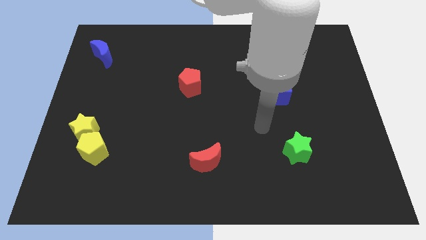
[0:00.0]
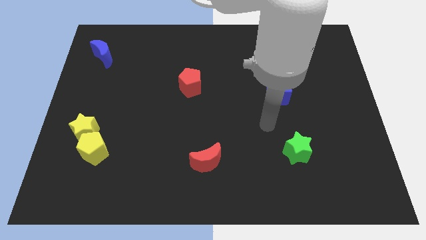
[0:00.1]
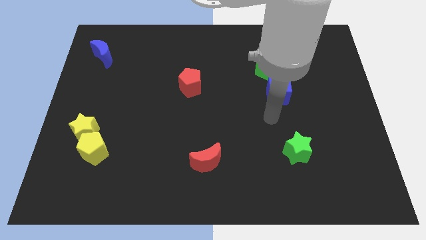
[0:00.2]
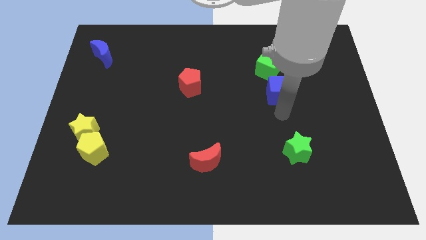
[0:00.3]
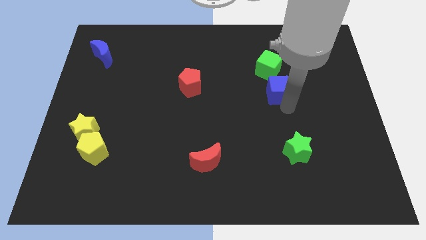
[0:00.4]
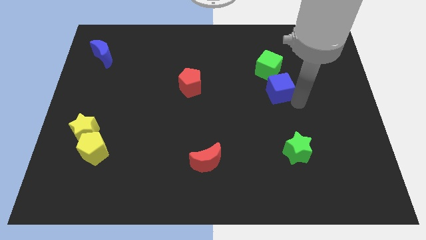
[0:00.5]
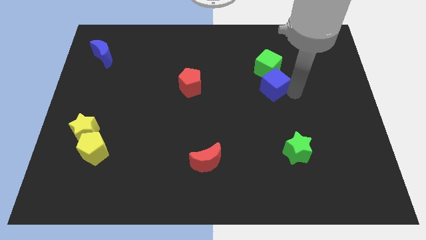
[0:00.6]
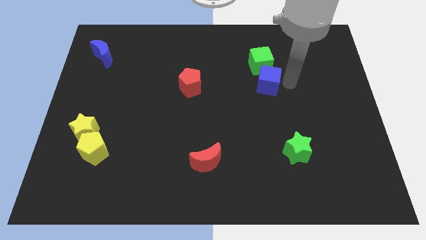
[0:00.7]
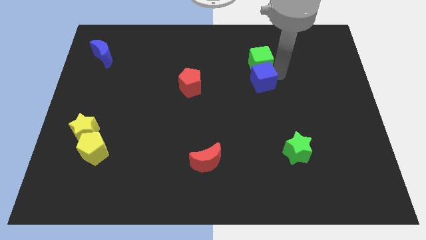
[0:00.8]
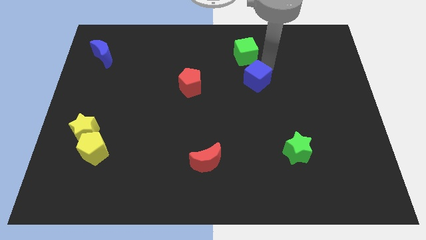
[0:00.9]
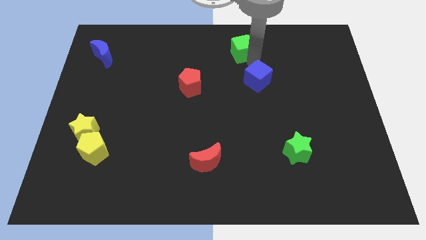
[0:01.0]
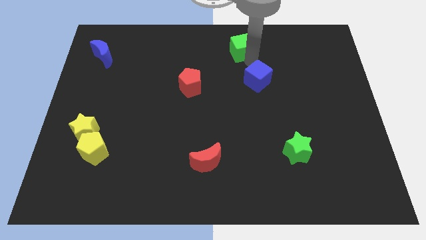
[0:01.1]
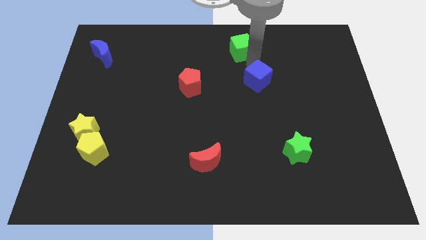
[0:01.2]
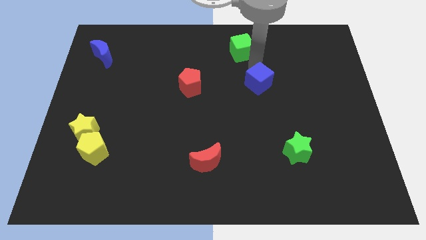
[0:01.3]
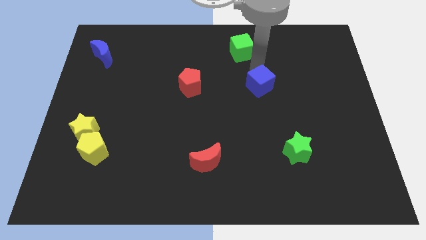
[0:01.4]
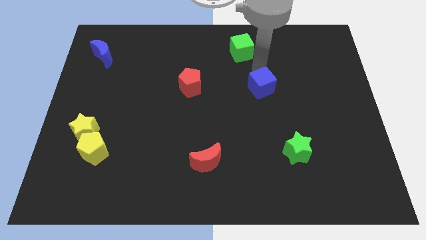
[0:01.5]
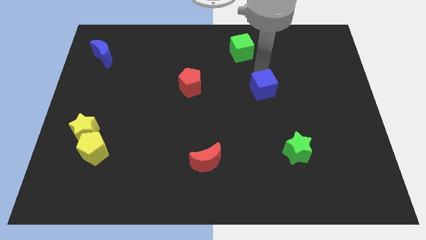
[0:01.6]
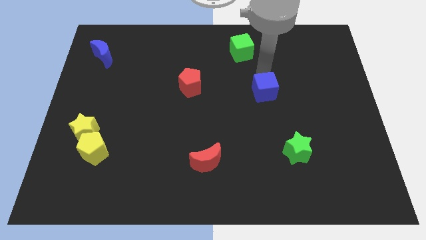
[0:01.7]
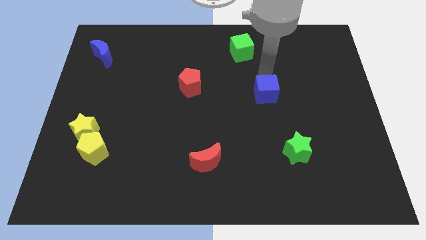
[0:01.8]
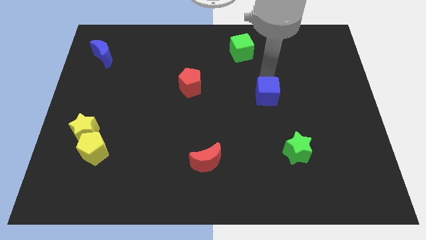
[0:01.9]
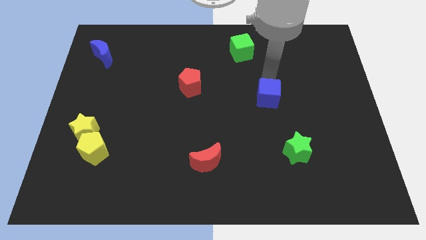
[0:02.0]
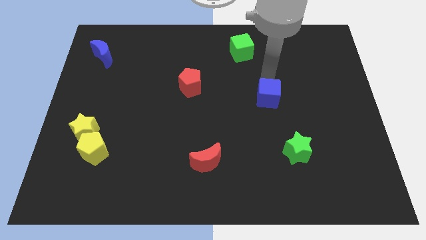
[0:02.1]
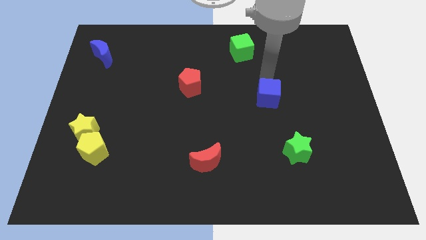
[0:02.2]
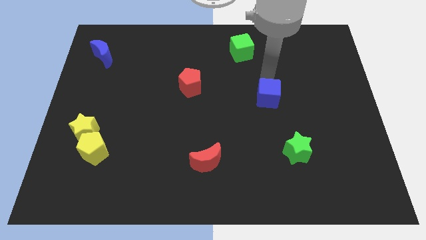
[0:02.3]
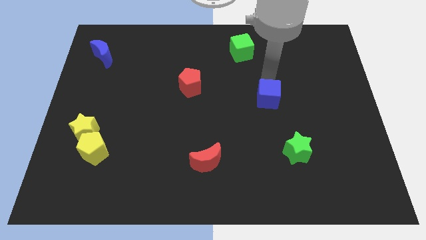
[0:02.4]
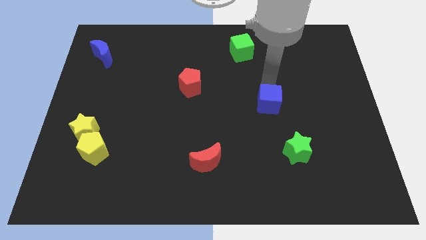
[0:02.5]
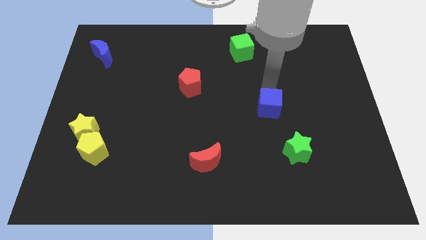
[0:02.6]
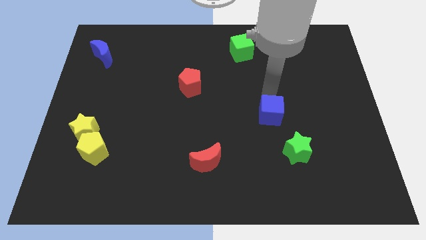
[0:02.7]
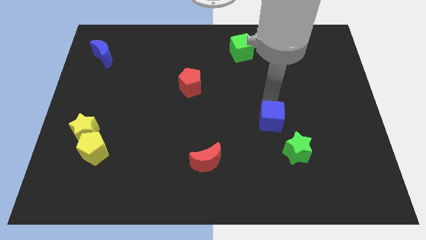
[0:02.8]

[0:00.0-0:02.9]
slide the blue cube down a little

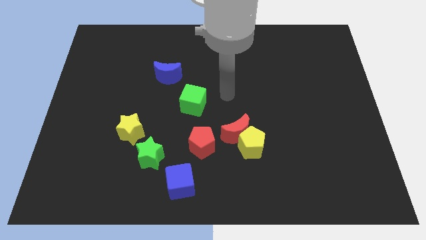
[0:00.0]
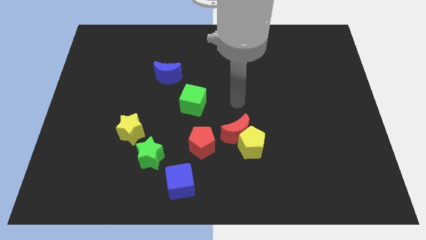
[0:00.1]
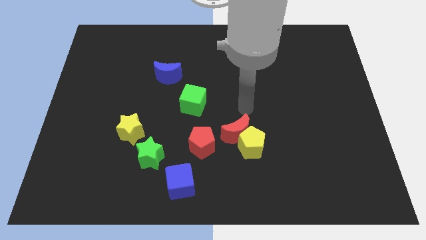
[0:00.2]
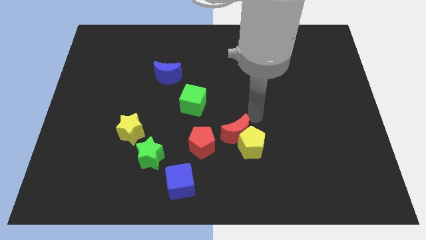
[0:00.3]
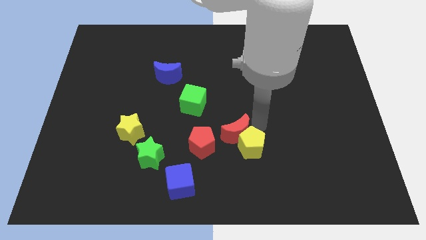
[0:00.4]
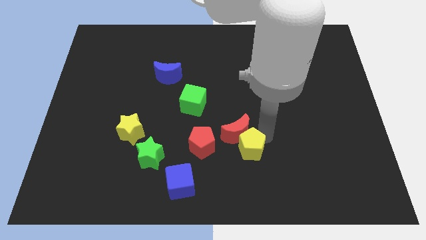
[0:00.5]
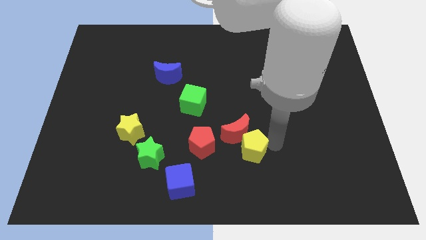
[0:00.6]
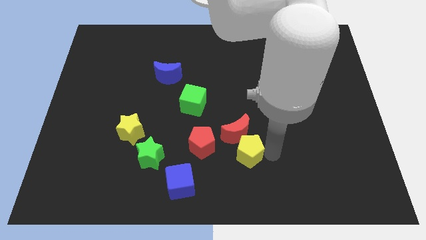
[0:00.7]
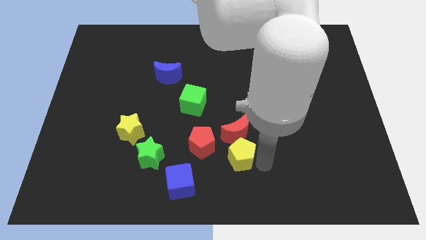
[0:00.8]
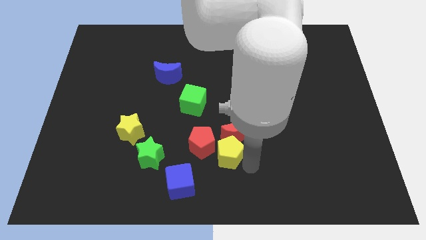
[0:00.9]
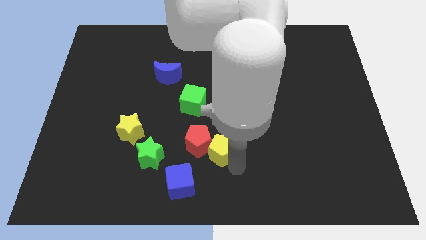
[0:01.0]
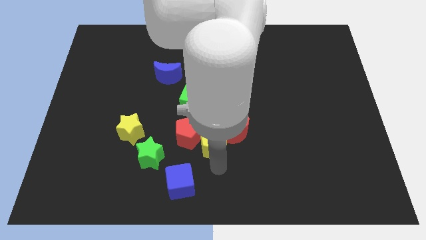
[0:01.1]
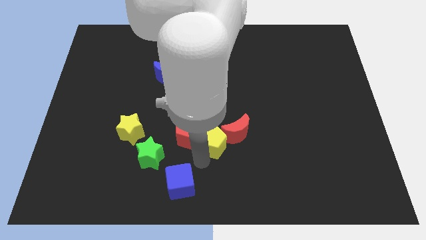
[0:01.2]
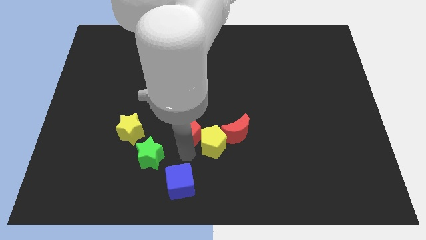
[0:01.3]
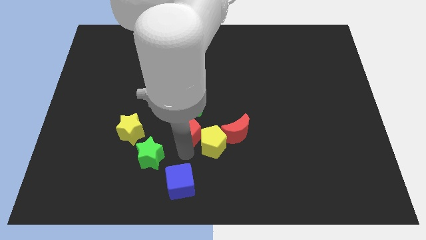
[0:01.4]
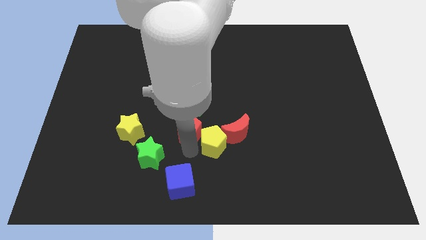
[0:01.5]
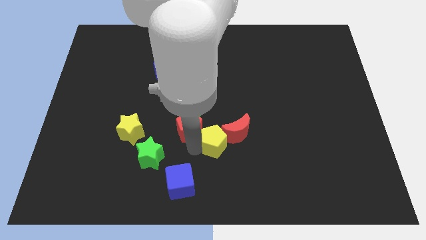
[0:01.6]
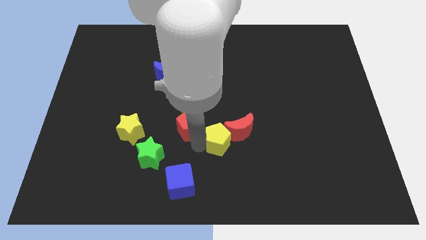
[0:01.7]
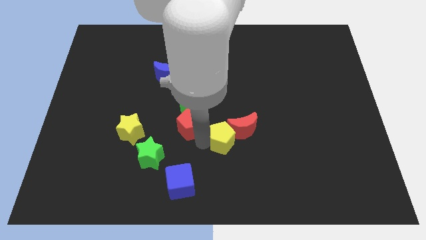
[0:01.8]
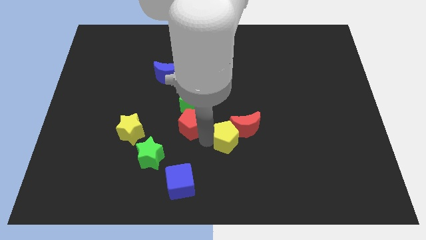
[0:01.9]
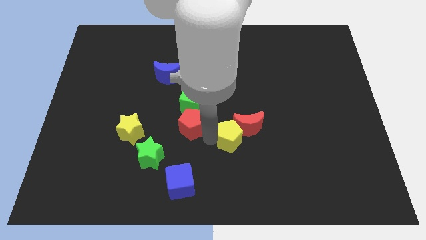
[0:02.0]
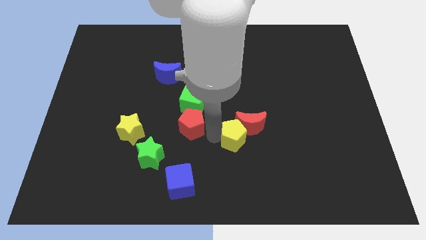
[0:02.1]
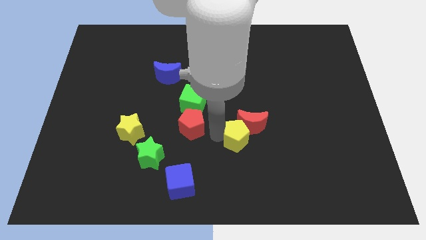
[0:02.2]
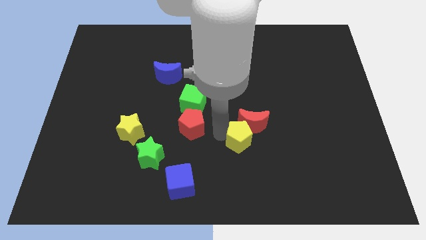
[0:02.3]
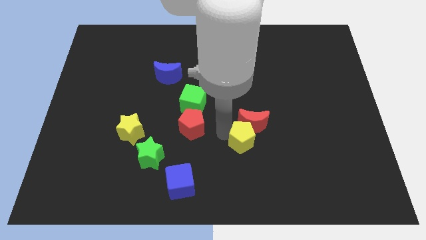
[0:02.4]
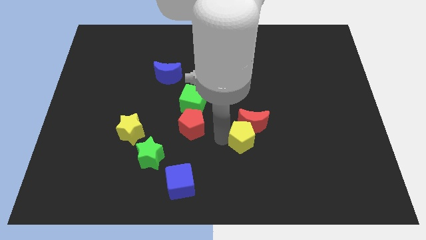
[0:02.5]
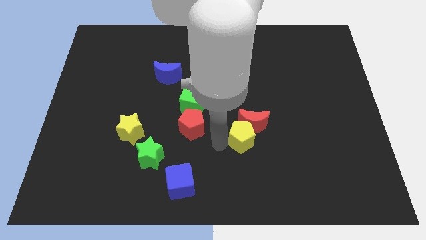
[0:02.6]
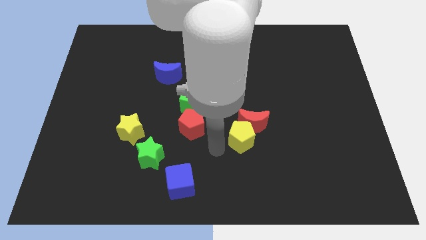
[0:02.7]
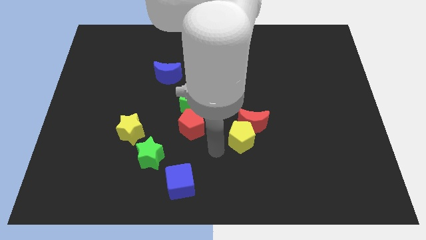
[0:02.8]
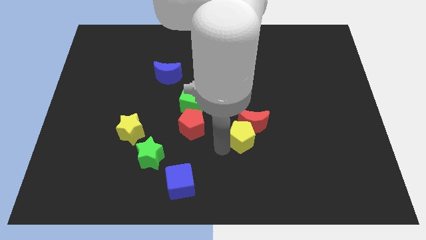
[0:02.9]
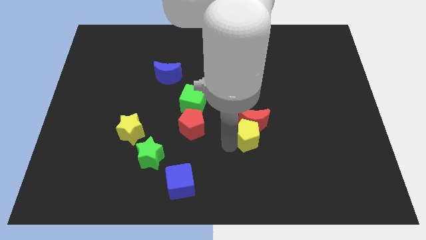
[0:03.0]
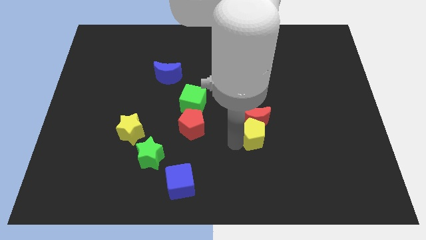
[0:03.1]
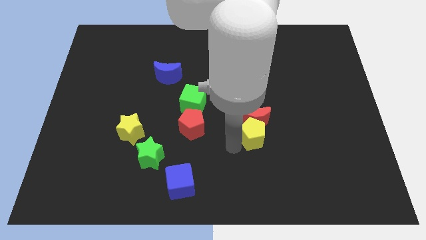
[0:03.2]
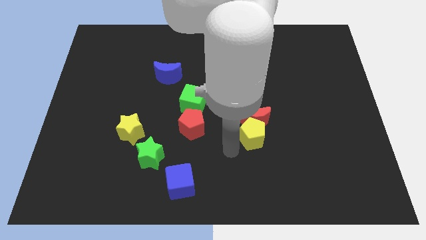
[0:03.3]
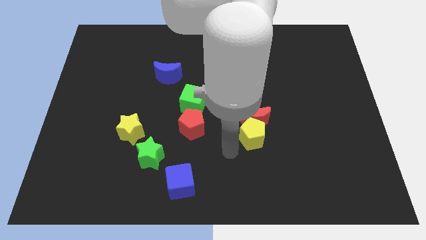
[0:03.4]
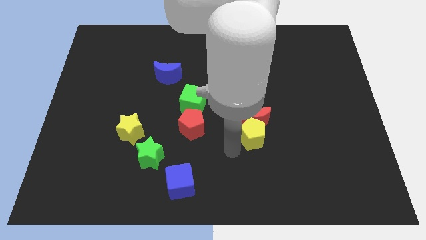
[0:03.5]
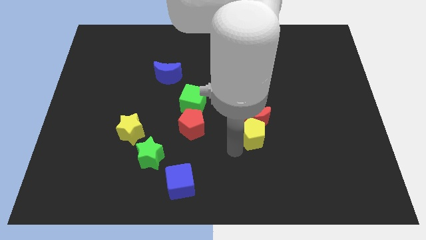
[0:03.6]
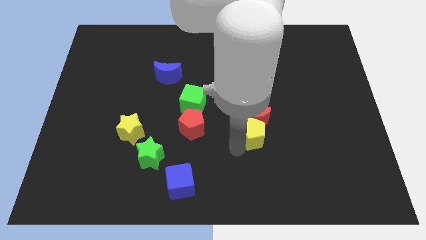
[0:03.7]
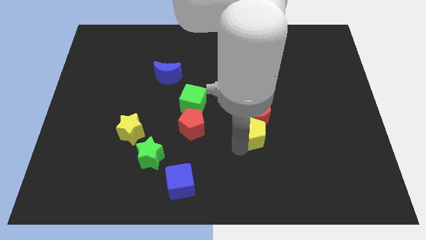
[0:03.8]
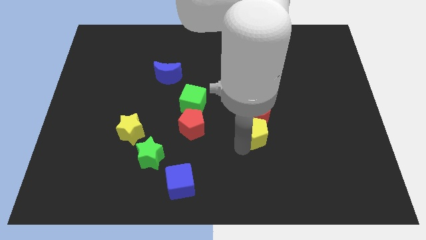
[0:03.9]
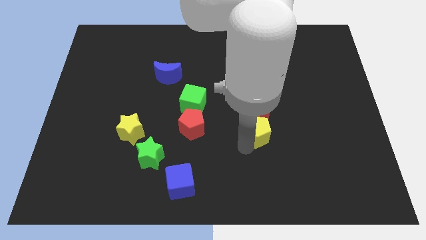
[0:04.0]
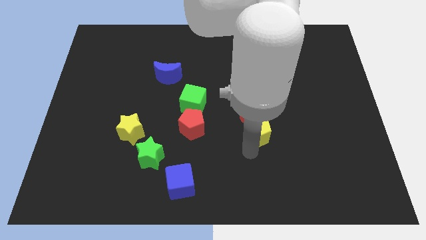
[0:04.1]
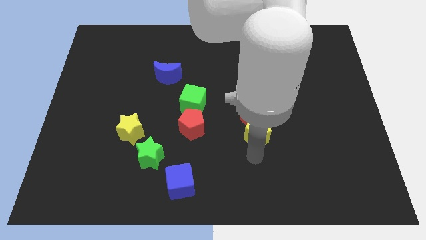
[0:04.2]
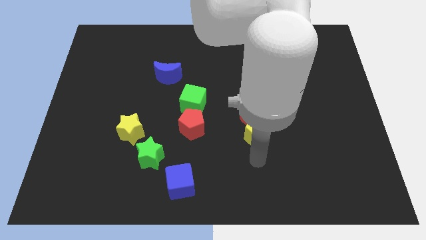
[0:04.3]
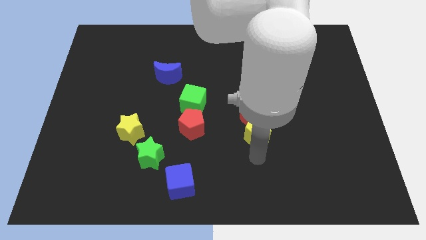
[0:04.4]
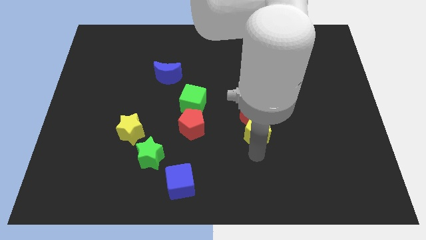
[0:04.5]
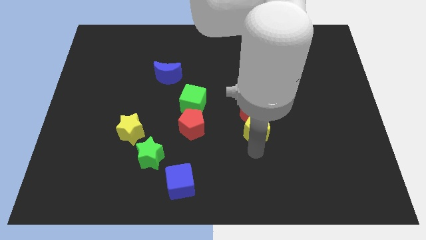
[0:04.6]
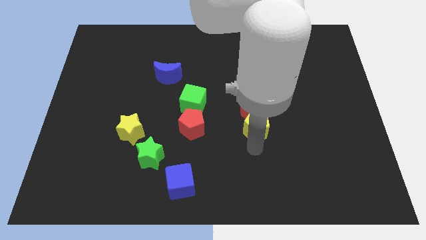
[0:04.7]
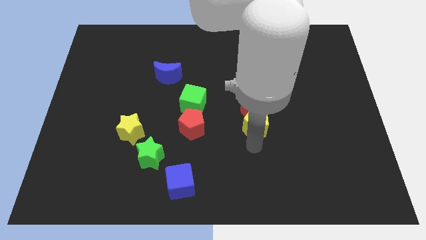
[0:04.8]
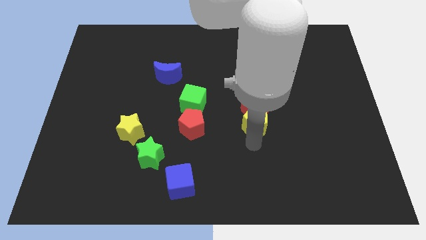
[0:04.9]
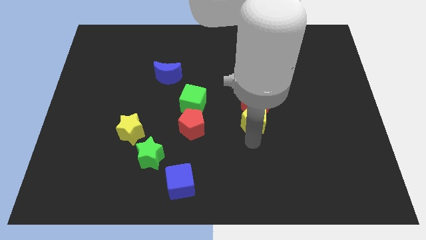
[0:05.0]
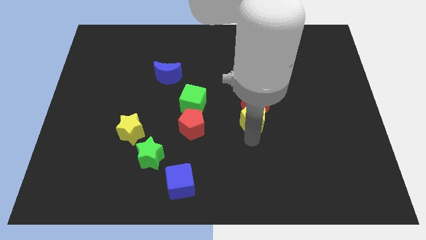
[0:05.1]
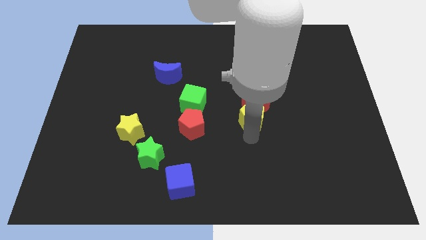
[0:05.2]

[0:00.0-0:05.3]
move the yellow pentagon a bit up
